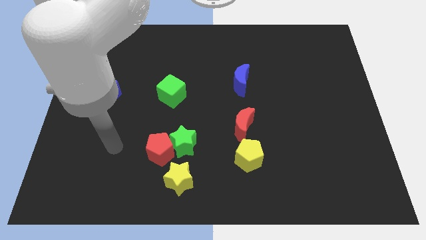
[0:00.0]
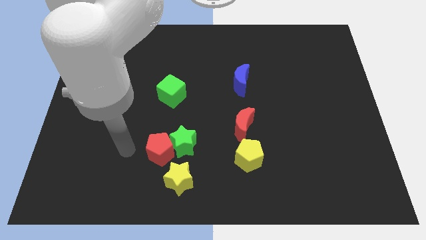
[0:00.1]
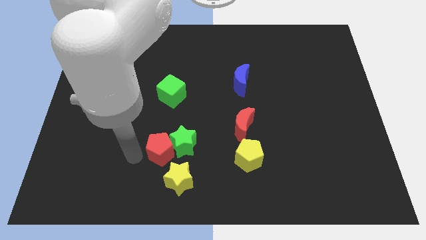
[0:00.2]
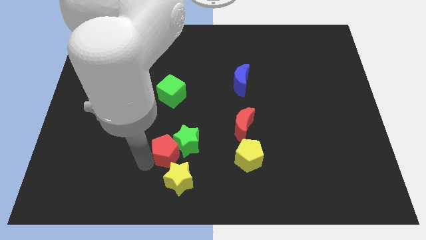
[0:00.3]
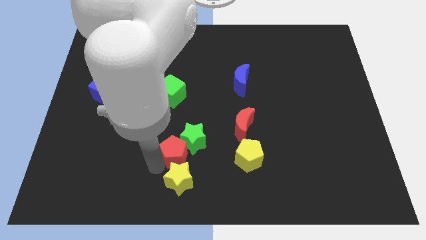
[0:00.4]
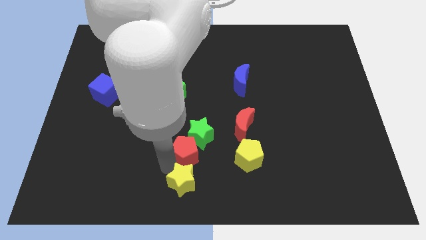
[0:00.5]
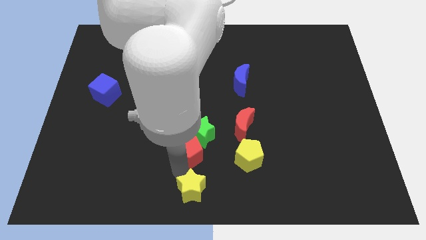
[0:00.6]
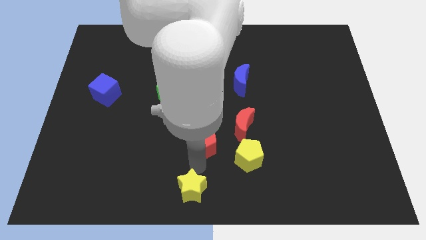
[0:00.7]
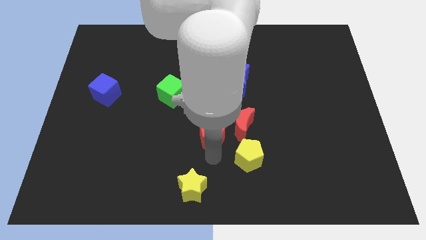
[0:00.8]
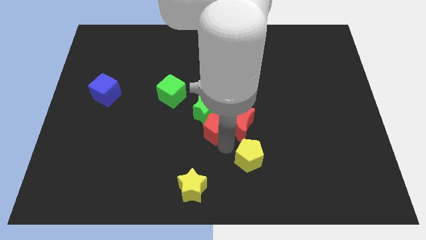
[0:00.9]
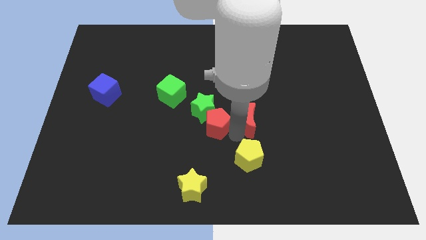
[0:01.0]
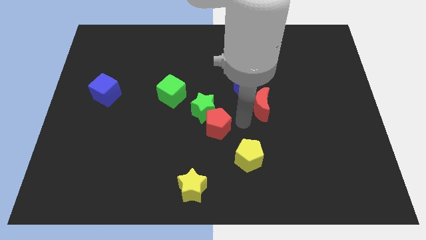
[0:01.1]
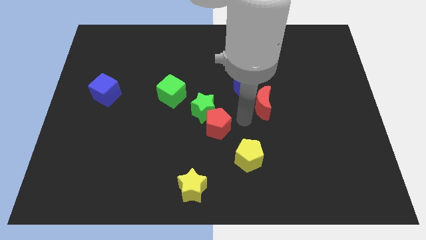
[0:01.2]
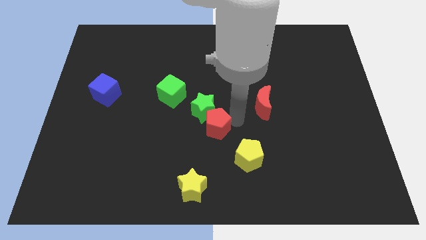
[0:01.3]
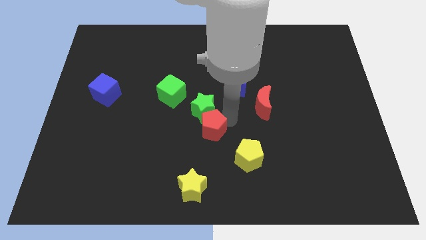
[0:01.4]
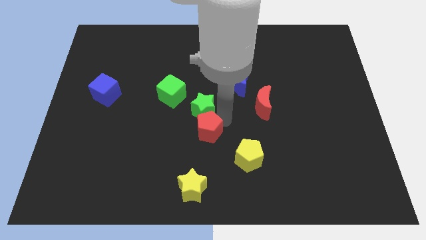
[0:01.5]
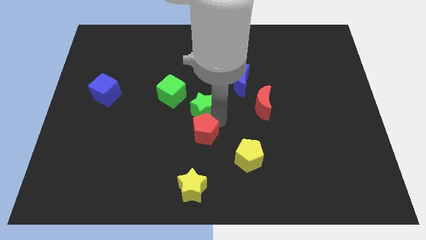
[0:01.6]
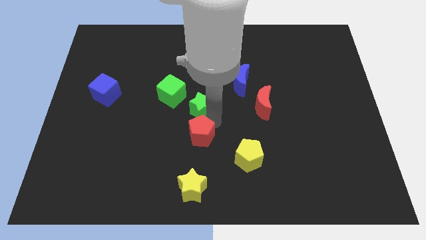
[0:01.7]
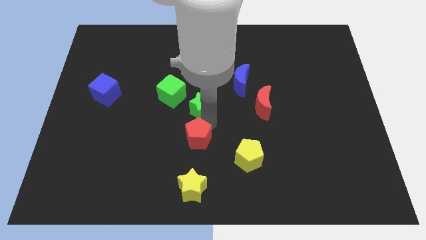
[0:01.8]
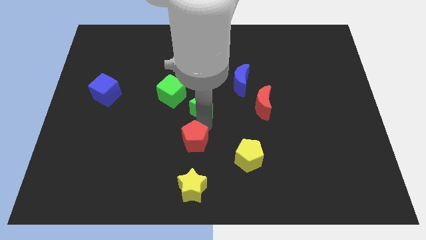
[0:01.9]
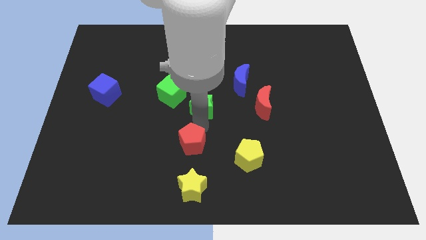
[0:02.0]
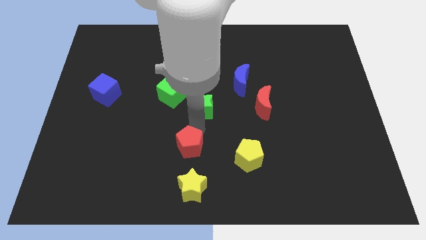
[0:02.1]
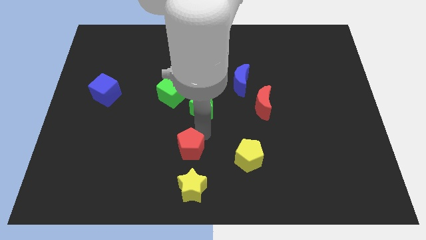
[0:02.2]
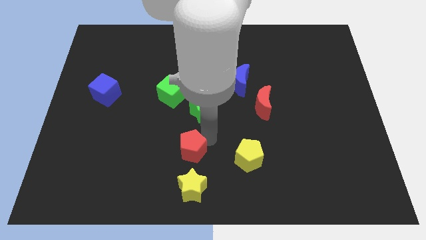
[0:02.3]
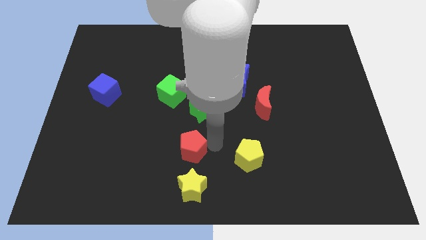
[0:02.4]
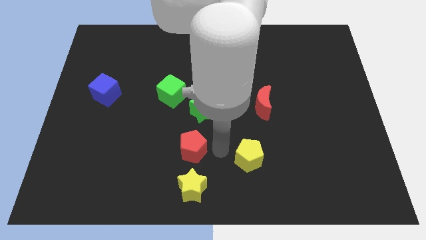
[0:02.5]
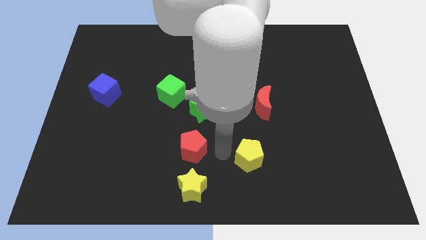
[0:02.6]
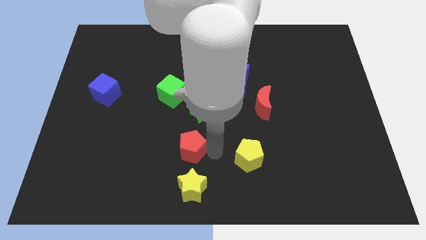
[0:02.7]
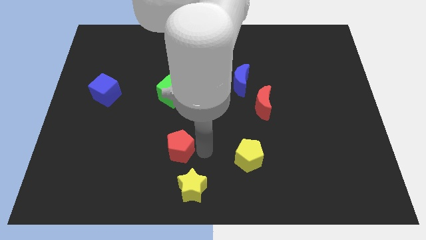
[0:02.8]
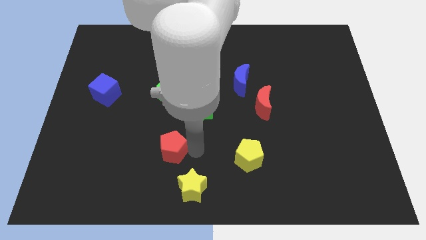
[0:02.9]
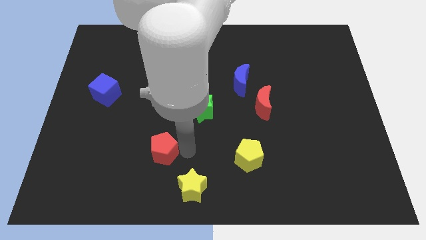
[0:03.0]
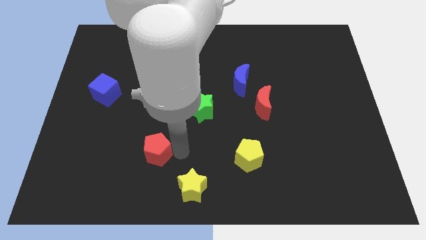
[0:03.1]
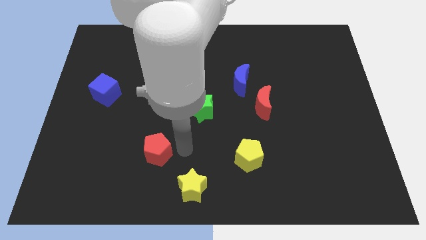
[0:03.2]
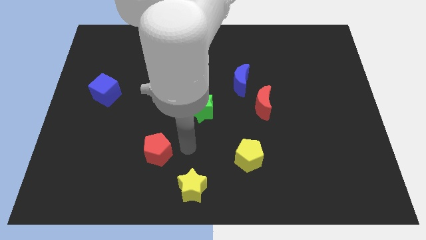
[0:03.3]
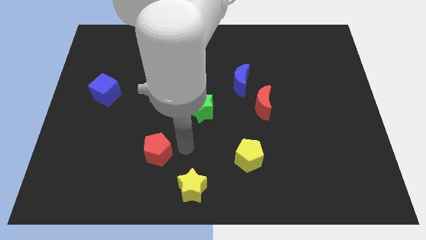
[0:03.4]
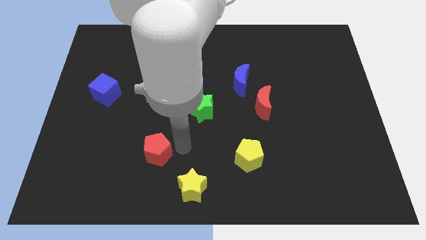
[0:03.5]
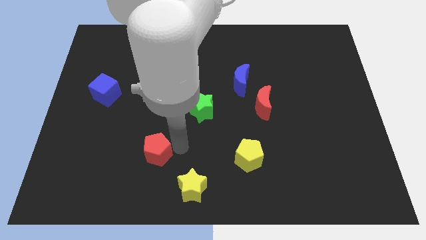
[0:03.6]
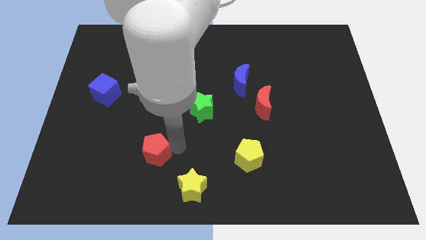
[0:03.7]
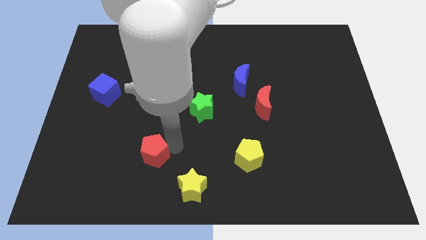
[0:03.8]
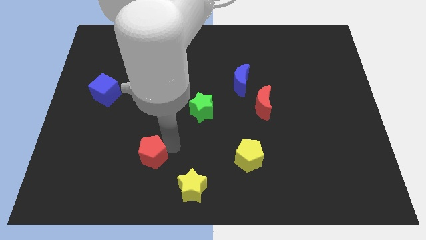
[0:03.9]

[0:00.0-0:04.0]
move the red pentagon away from the green star and yellow star

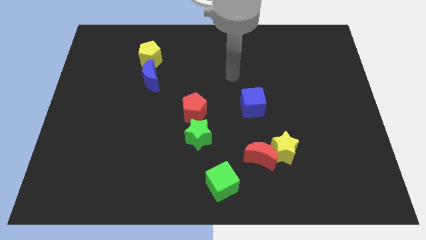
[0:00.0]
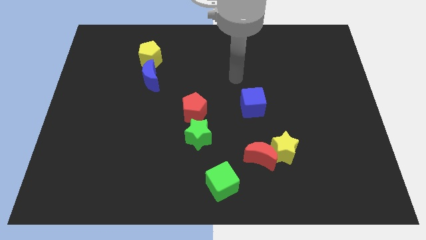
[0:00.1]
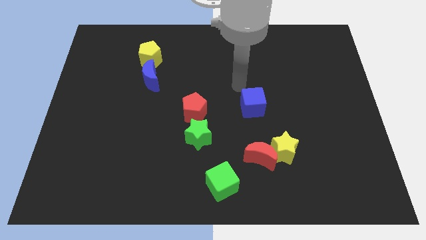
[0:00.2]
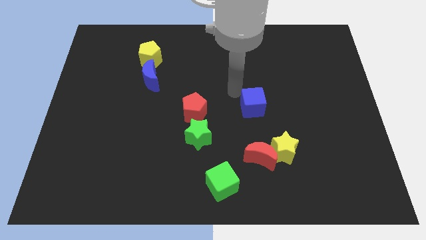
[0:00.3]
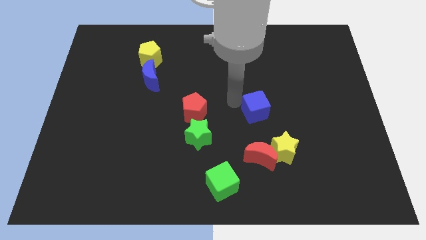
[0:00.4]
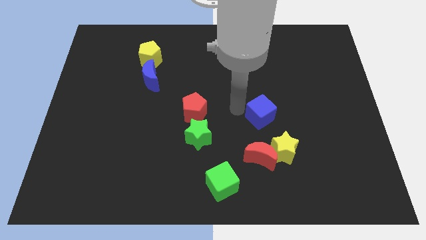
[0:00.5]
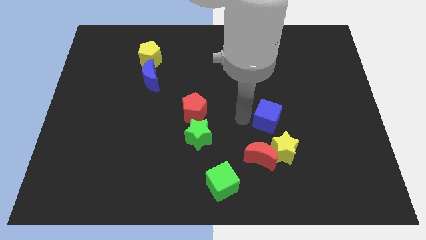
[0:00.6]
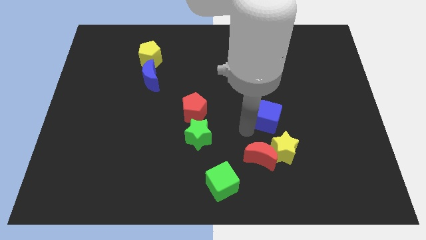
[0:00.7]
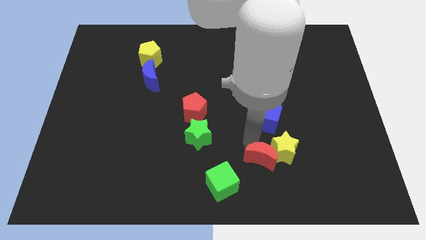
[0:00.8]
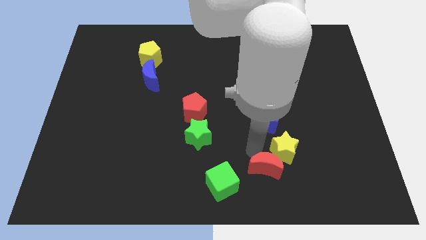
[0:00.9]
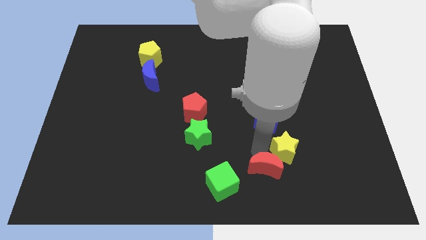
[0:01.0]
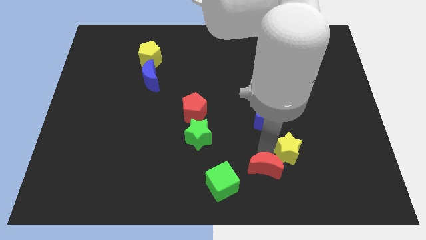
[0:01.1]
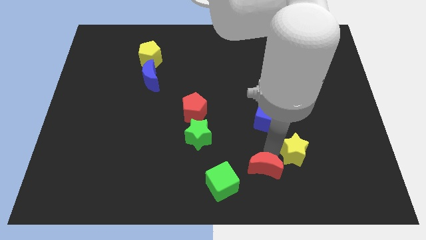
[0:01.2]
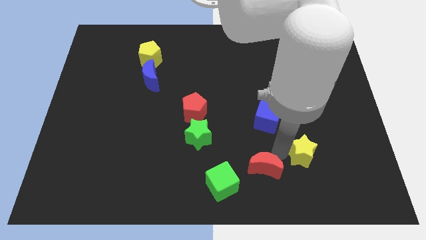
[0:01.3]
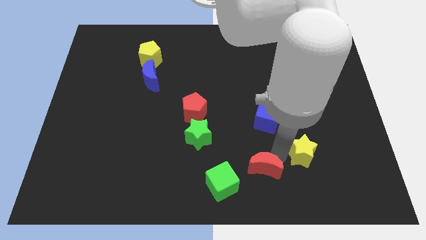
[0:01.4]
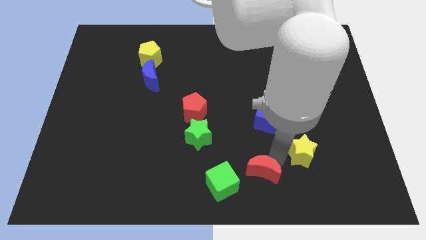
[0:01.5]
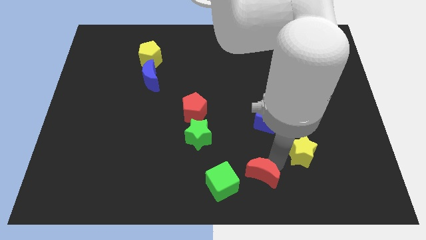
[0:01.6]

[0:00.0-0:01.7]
move the yellow star away from the red moon

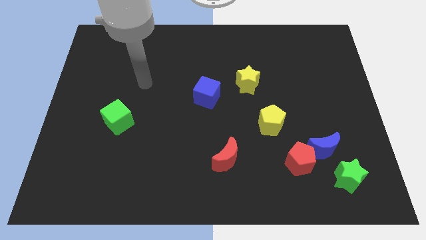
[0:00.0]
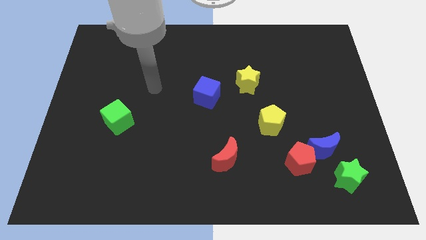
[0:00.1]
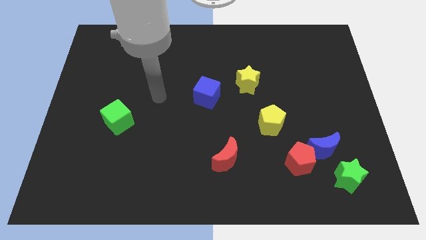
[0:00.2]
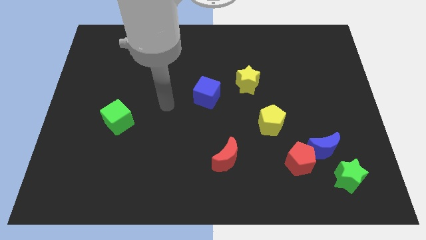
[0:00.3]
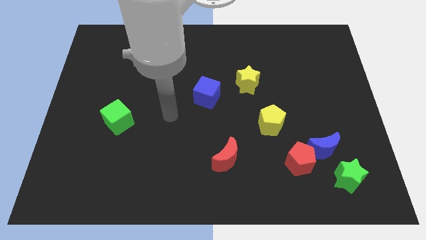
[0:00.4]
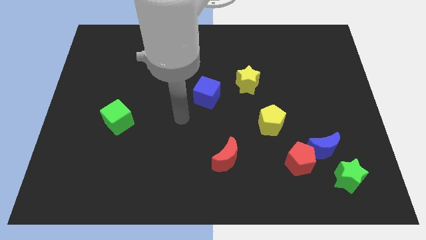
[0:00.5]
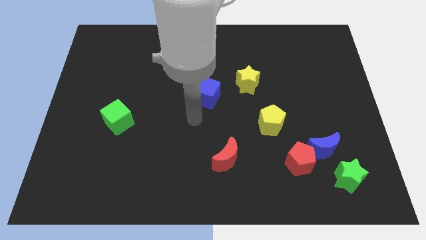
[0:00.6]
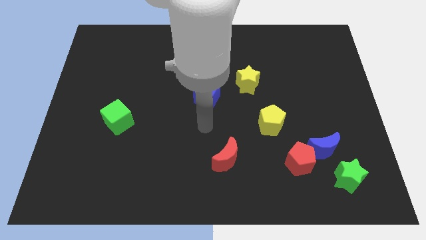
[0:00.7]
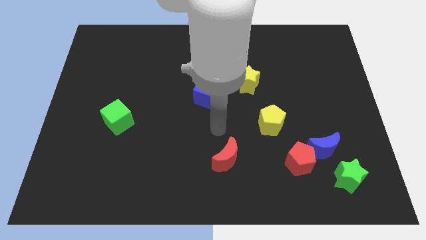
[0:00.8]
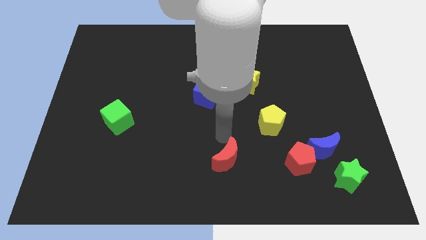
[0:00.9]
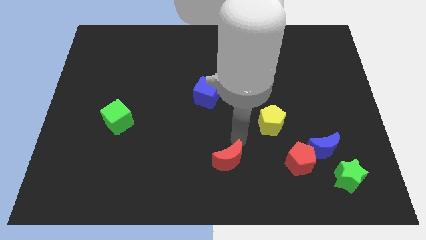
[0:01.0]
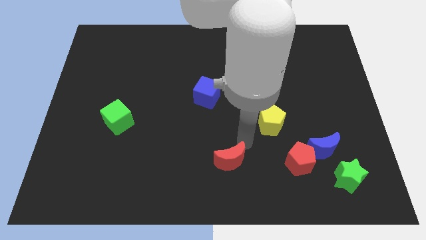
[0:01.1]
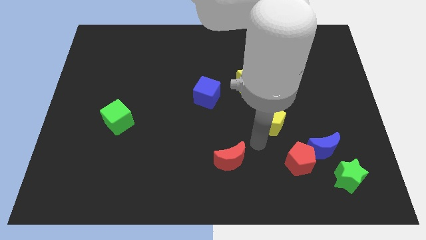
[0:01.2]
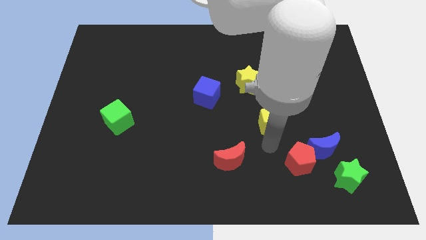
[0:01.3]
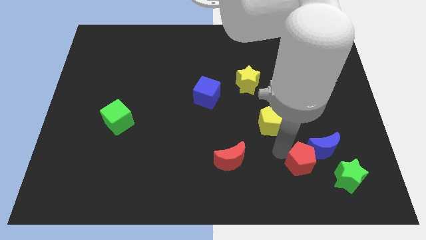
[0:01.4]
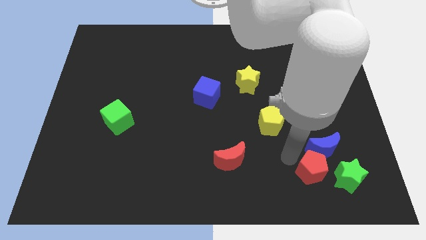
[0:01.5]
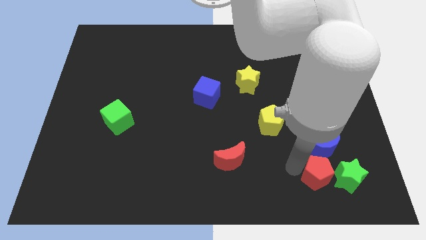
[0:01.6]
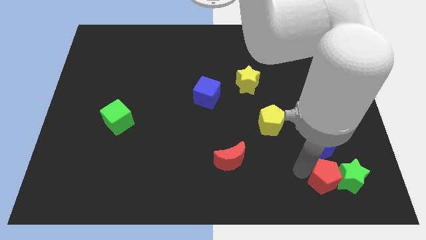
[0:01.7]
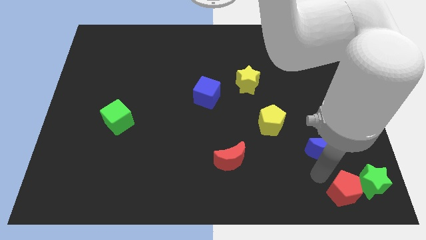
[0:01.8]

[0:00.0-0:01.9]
pull the blue moon apart from the red pentagon and green star

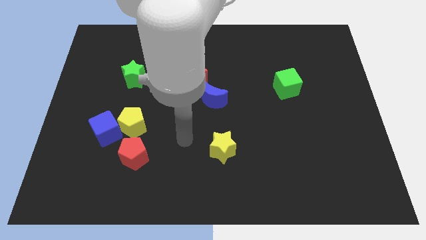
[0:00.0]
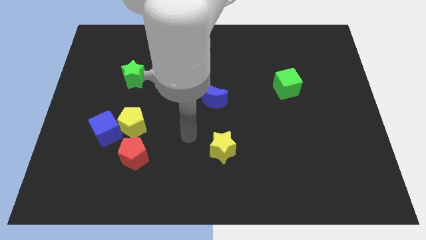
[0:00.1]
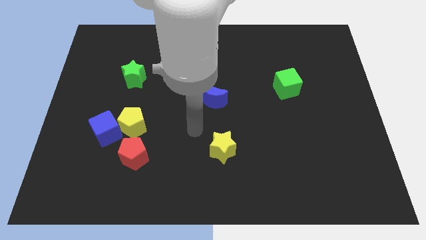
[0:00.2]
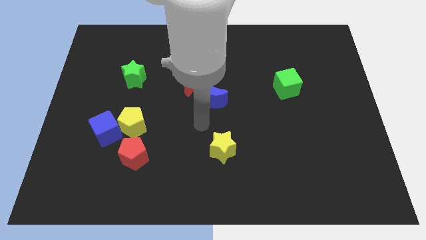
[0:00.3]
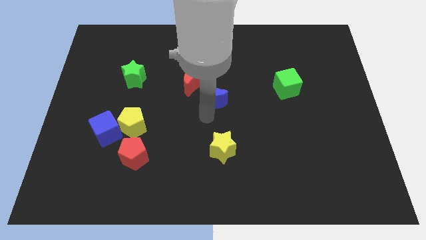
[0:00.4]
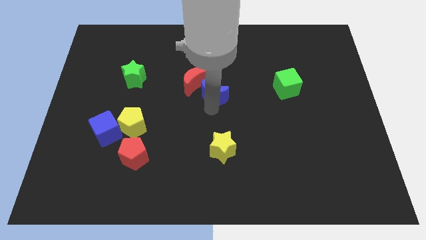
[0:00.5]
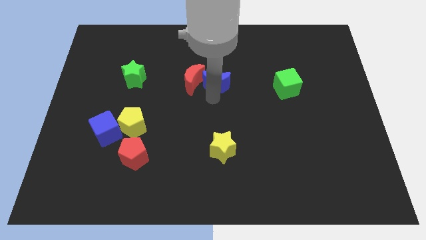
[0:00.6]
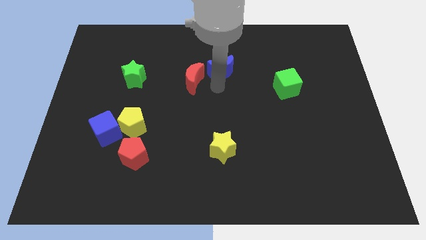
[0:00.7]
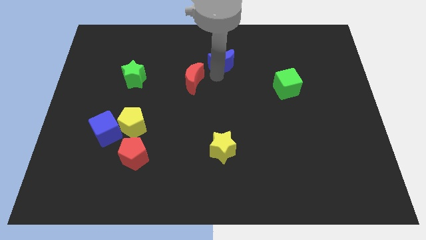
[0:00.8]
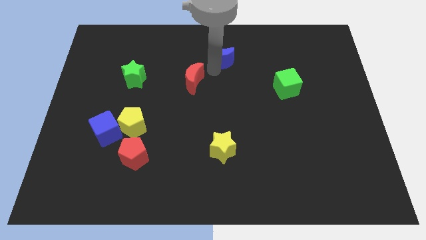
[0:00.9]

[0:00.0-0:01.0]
pull the red moon apart from the blue moon

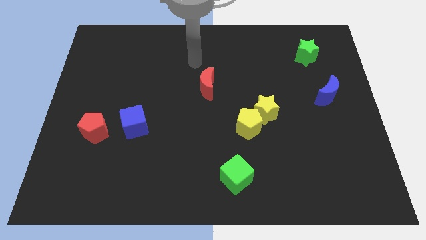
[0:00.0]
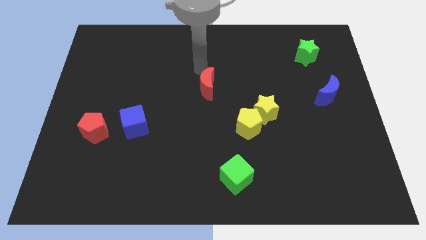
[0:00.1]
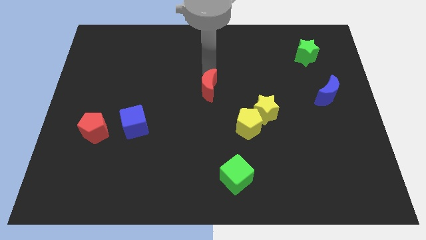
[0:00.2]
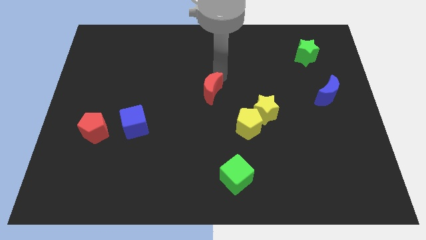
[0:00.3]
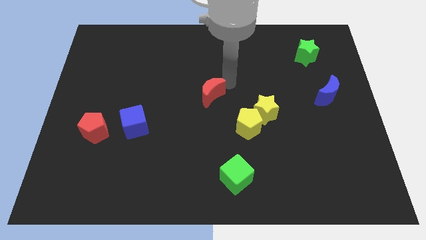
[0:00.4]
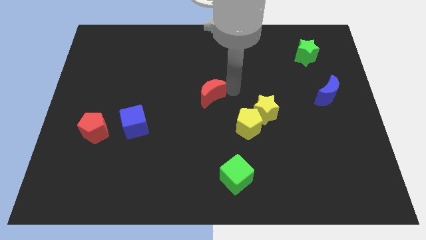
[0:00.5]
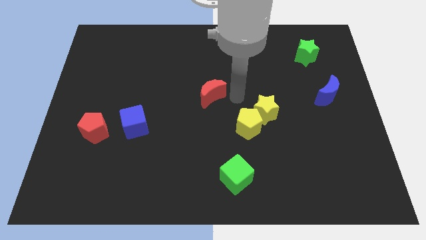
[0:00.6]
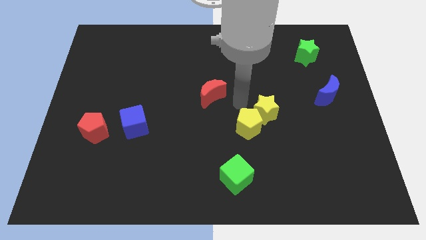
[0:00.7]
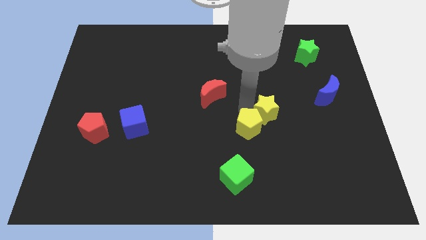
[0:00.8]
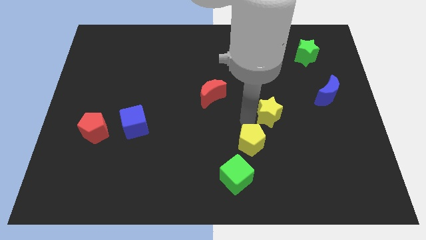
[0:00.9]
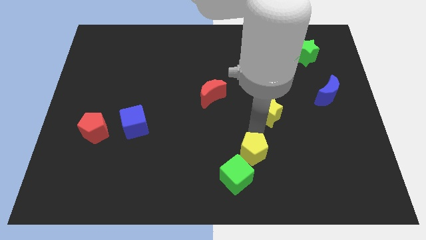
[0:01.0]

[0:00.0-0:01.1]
separate the yellow star from the yellow pentagon
